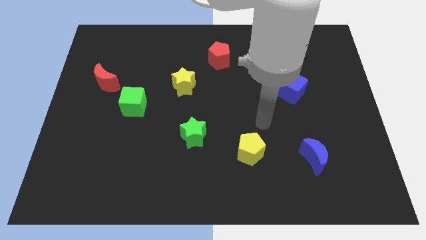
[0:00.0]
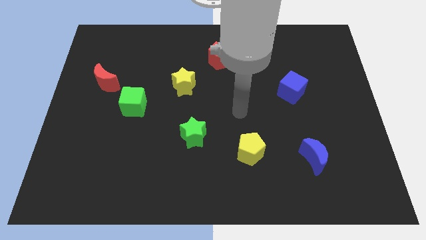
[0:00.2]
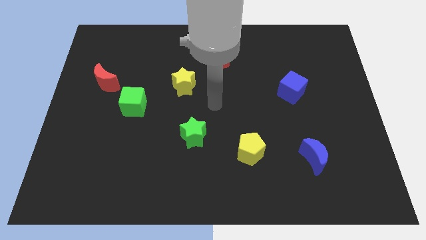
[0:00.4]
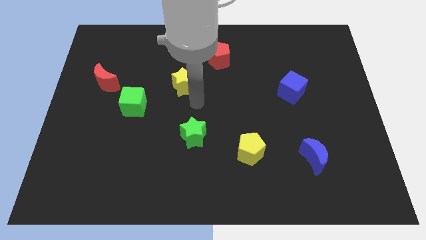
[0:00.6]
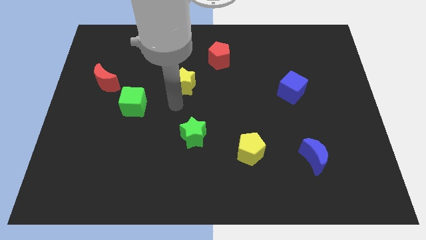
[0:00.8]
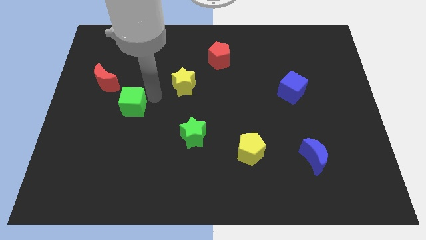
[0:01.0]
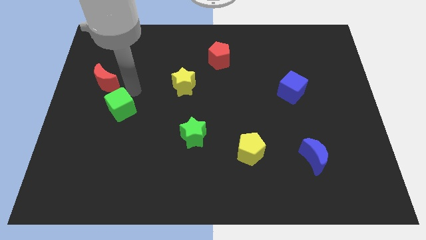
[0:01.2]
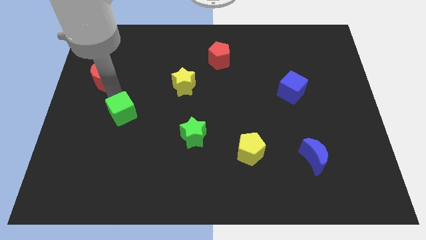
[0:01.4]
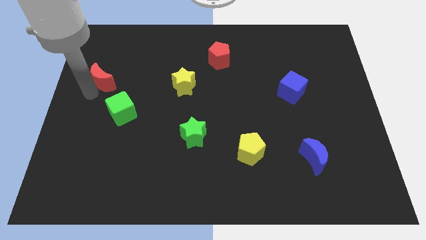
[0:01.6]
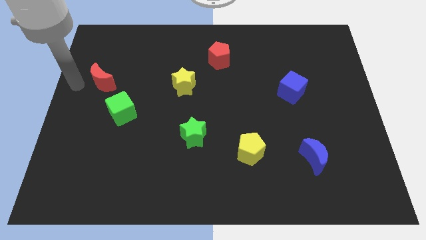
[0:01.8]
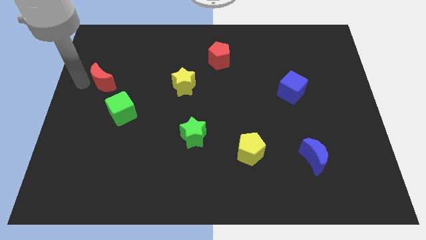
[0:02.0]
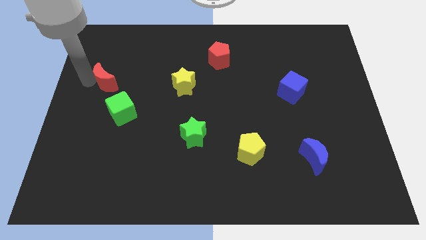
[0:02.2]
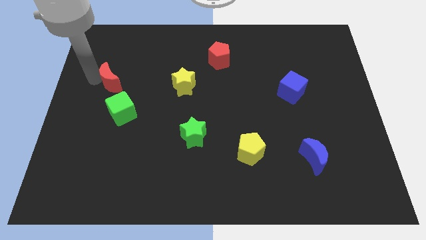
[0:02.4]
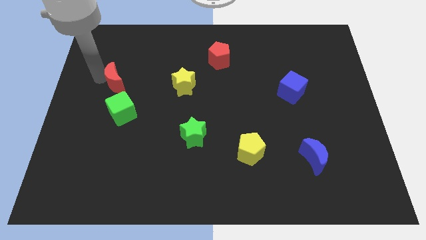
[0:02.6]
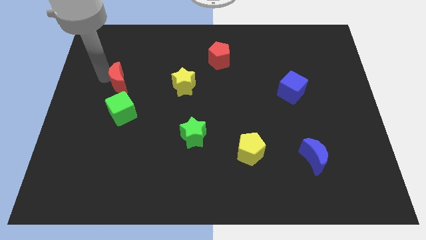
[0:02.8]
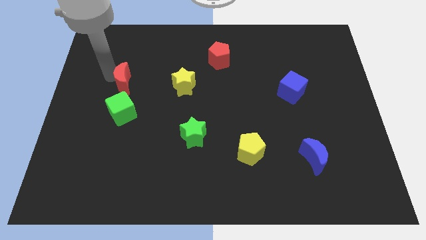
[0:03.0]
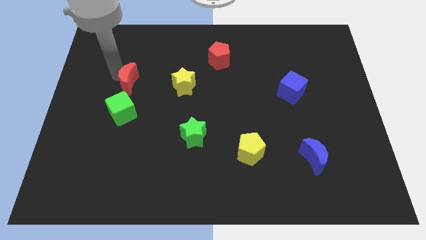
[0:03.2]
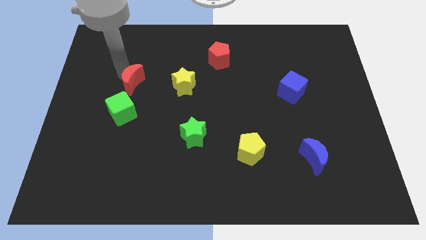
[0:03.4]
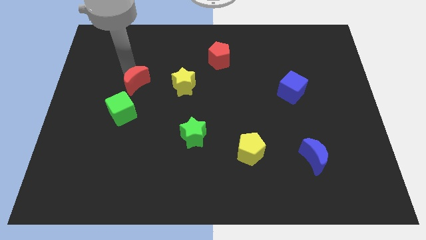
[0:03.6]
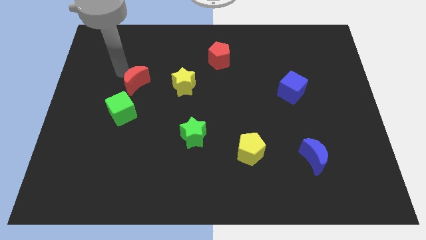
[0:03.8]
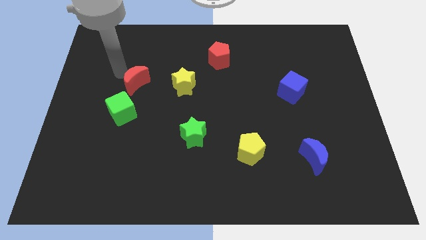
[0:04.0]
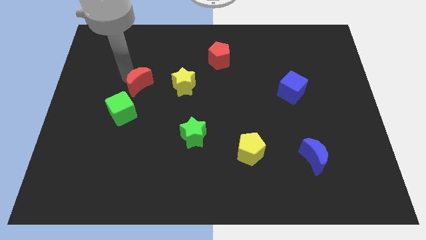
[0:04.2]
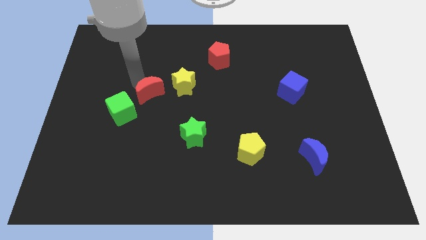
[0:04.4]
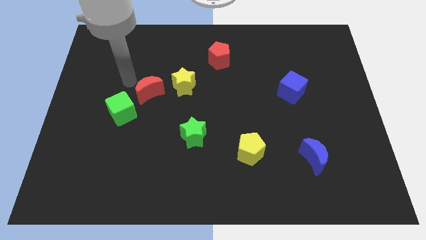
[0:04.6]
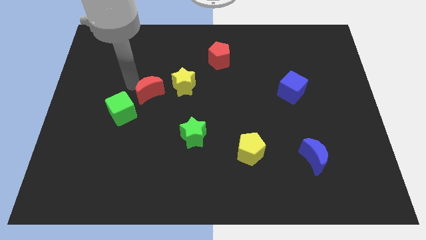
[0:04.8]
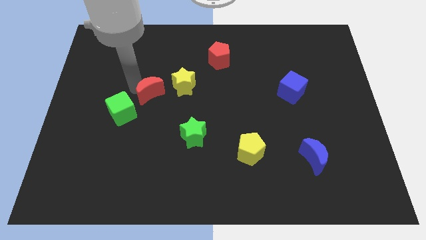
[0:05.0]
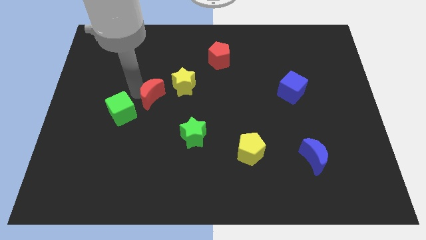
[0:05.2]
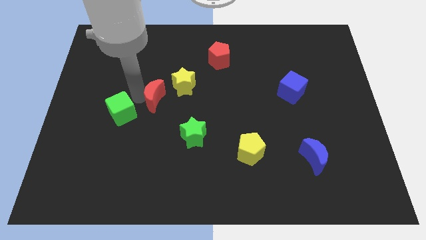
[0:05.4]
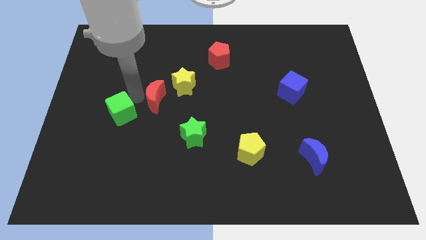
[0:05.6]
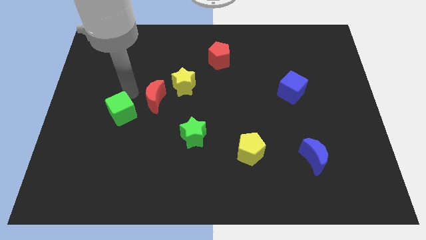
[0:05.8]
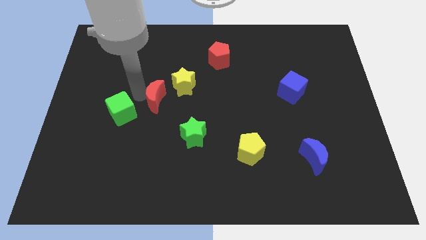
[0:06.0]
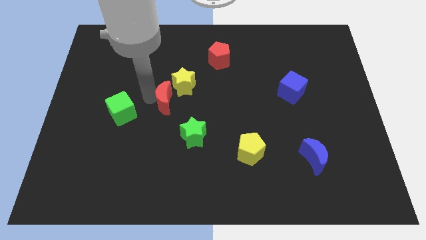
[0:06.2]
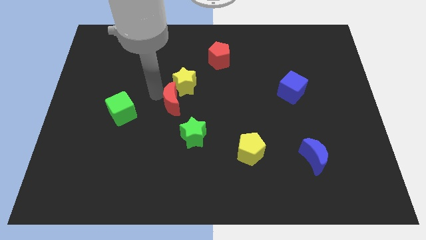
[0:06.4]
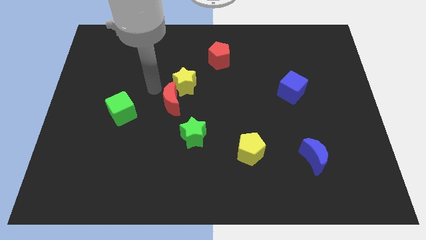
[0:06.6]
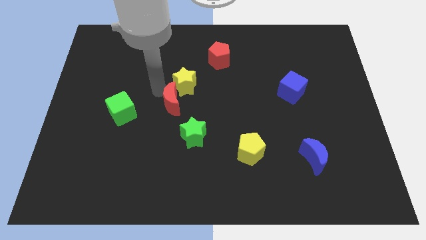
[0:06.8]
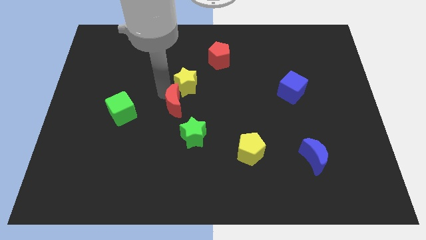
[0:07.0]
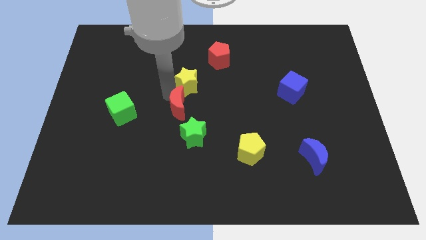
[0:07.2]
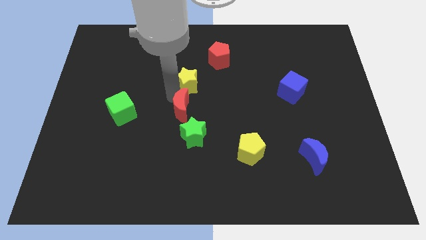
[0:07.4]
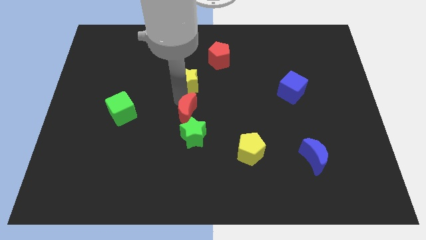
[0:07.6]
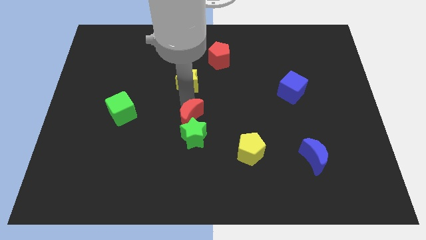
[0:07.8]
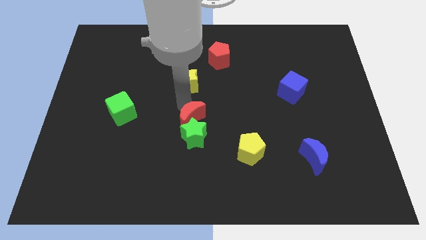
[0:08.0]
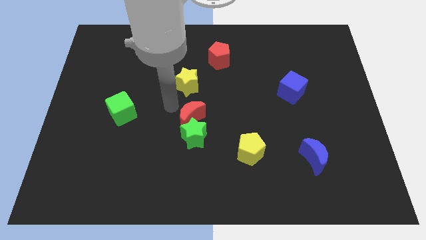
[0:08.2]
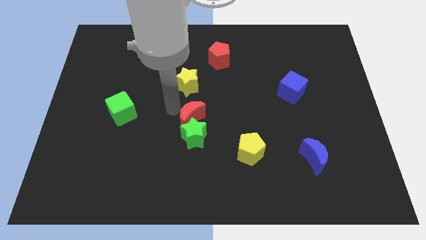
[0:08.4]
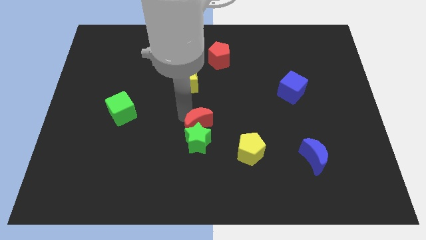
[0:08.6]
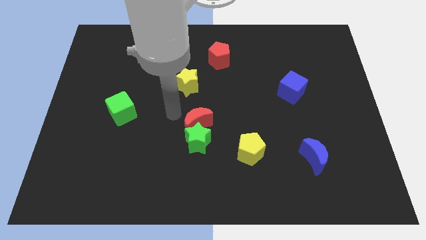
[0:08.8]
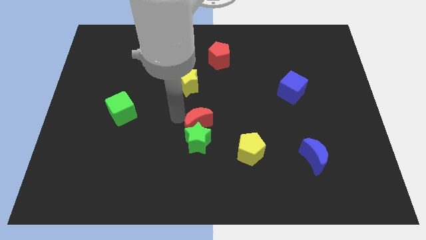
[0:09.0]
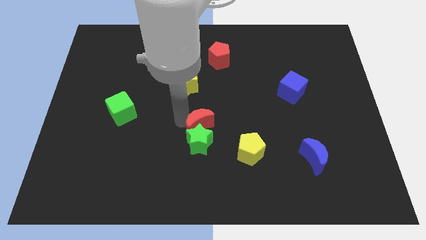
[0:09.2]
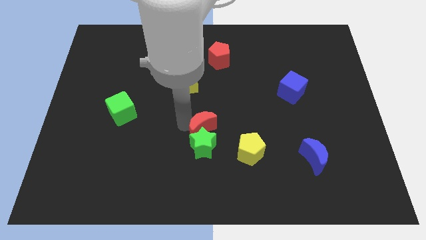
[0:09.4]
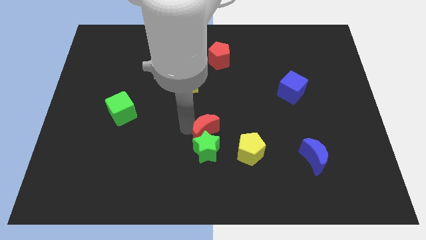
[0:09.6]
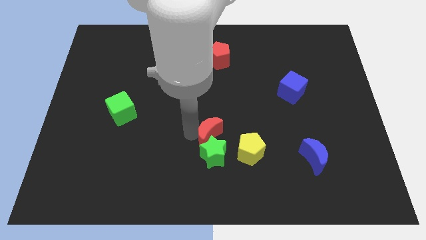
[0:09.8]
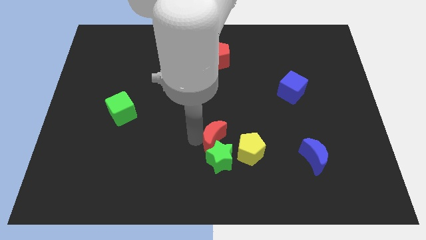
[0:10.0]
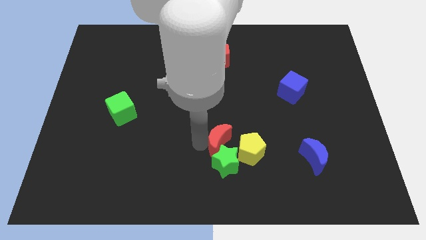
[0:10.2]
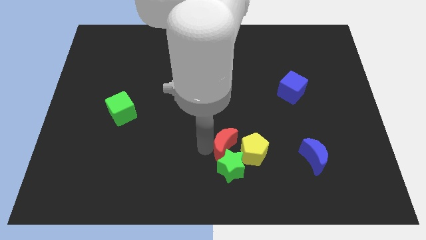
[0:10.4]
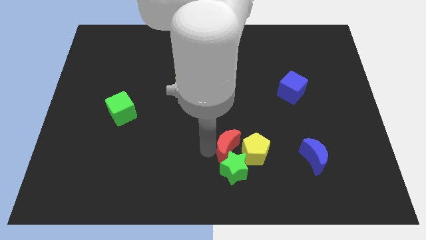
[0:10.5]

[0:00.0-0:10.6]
slide the red moon towards the yellow pentagon

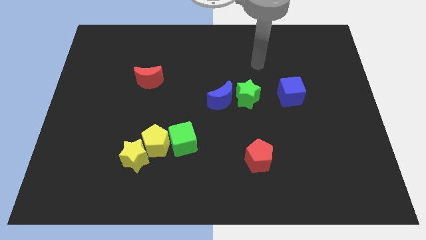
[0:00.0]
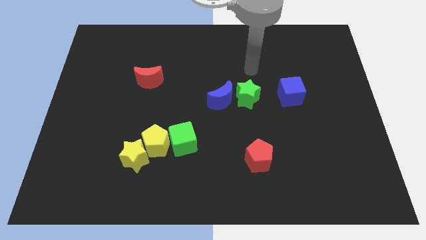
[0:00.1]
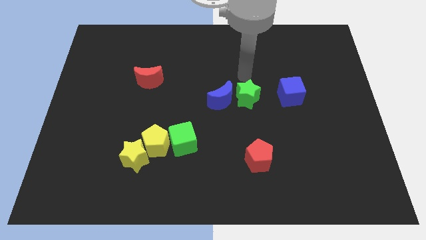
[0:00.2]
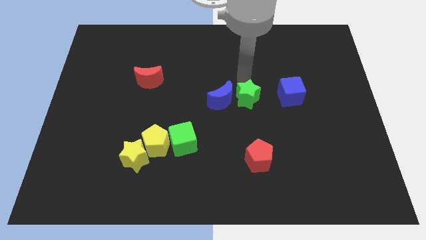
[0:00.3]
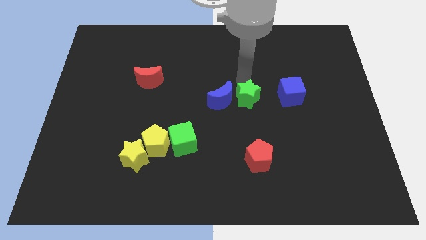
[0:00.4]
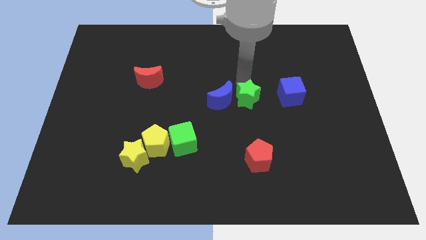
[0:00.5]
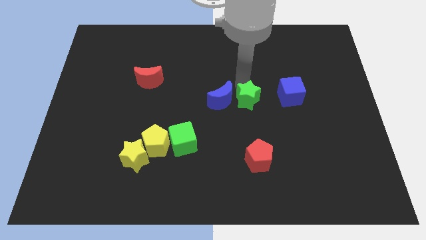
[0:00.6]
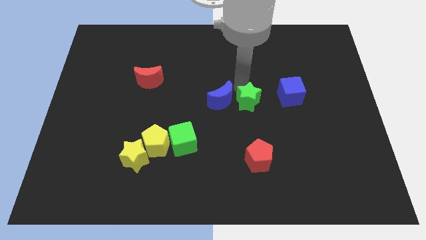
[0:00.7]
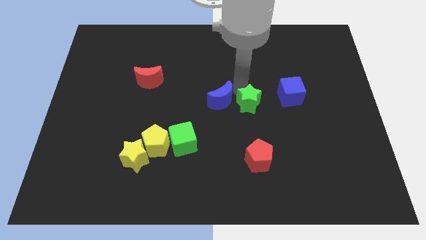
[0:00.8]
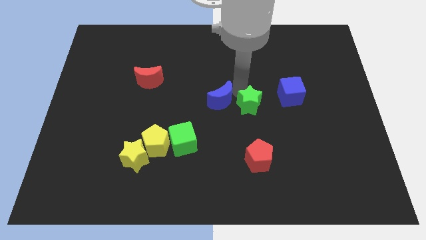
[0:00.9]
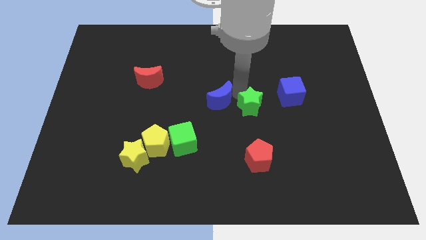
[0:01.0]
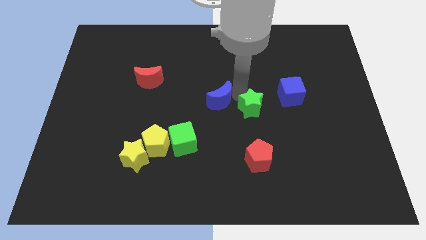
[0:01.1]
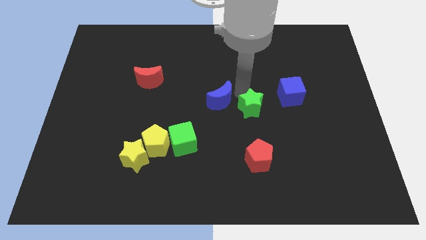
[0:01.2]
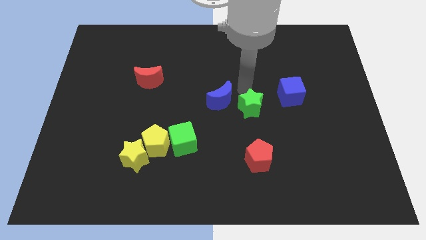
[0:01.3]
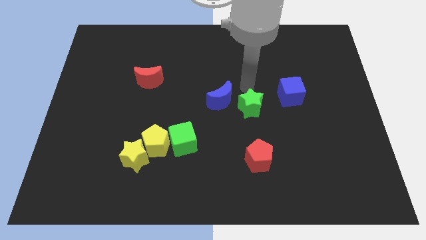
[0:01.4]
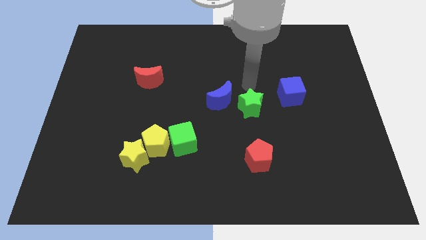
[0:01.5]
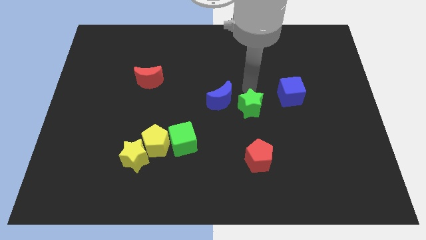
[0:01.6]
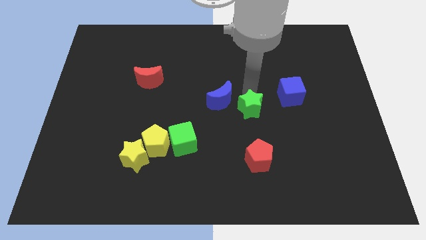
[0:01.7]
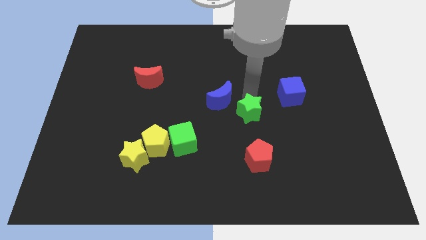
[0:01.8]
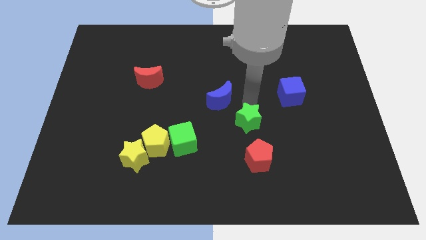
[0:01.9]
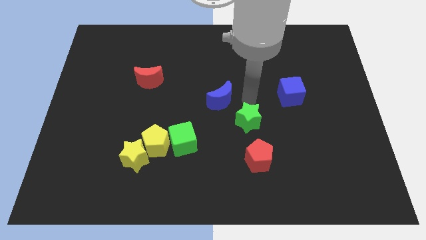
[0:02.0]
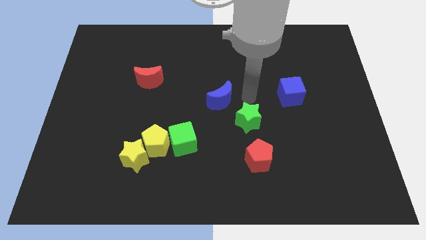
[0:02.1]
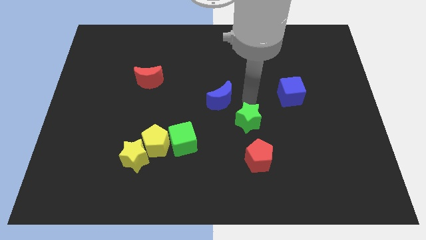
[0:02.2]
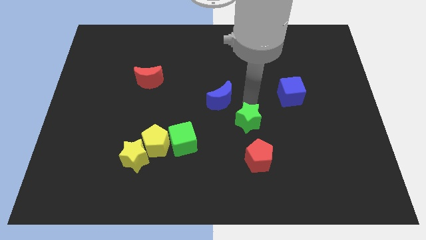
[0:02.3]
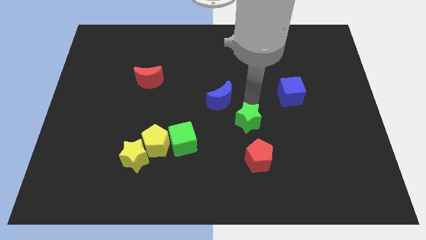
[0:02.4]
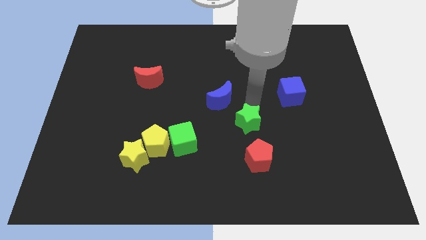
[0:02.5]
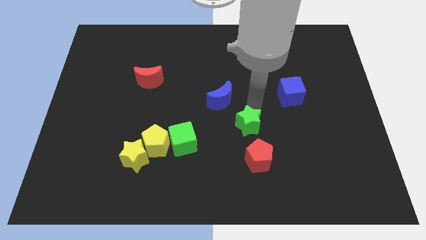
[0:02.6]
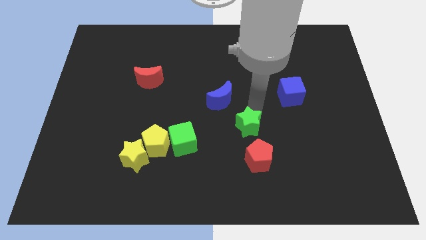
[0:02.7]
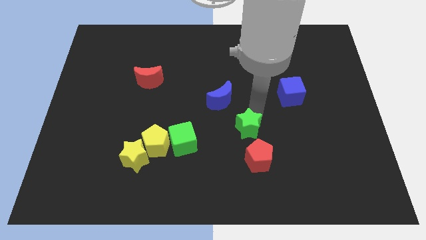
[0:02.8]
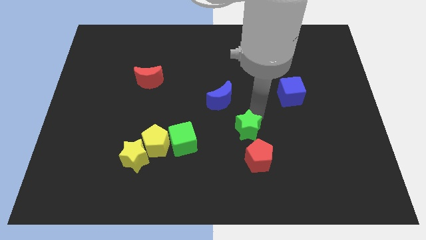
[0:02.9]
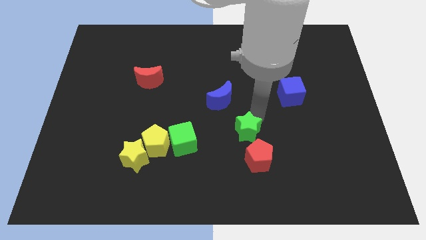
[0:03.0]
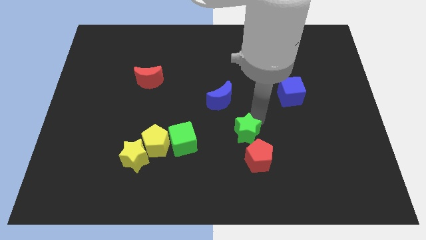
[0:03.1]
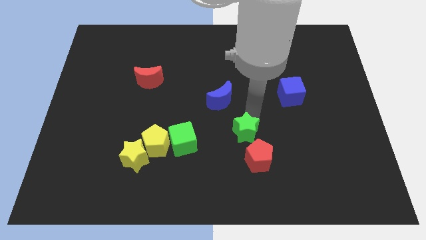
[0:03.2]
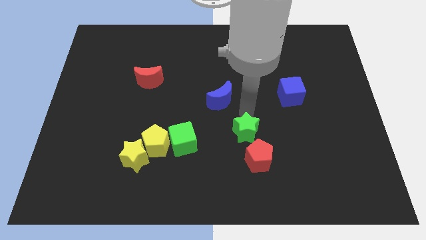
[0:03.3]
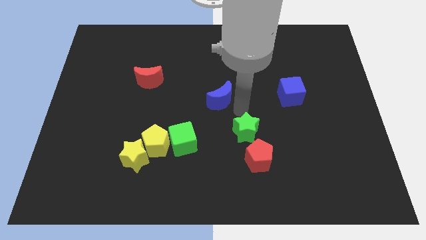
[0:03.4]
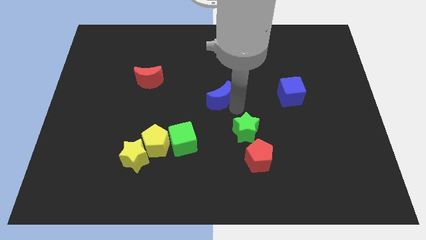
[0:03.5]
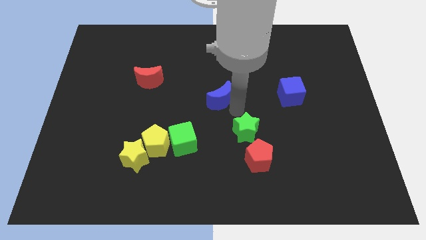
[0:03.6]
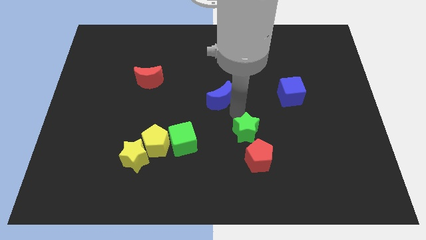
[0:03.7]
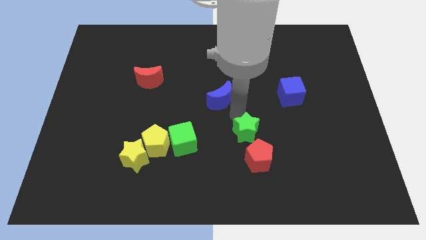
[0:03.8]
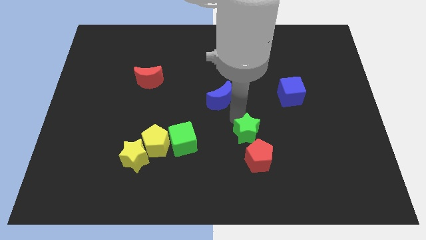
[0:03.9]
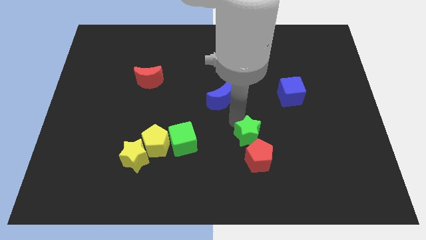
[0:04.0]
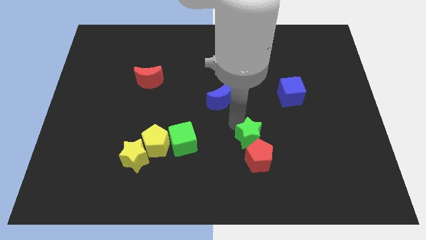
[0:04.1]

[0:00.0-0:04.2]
move the green star close to the red pentagon
